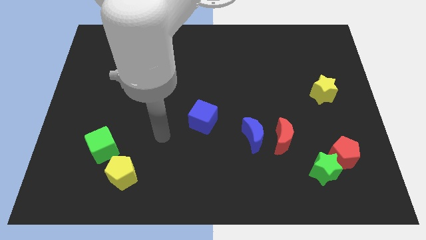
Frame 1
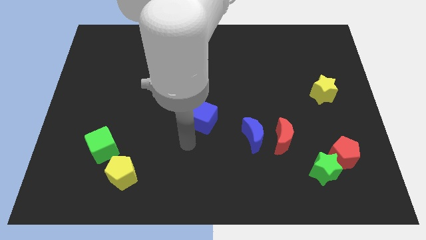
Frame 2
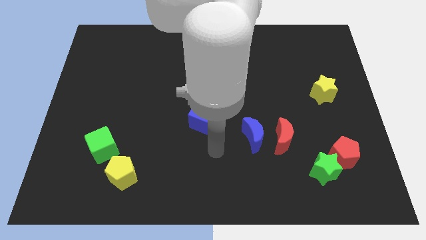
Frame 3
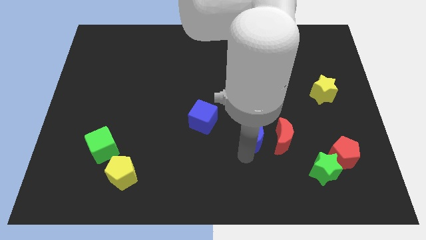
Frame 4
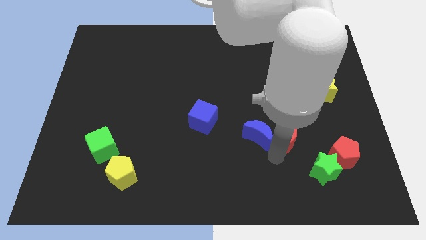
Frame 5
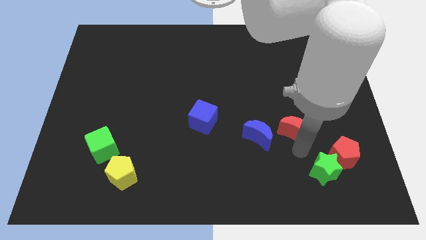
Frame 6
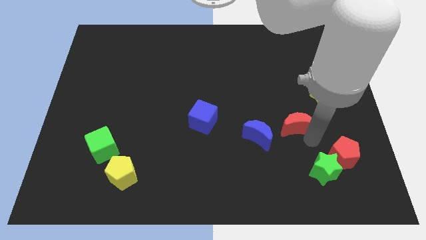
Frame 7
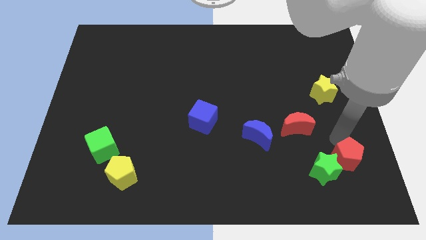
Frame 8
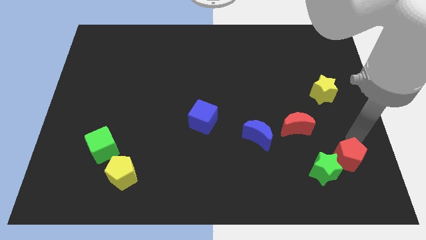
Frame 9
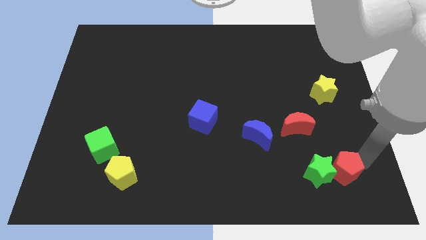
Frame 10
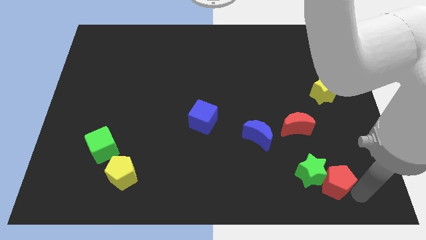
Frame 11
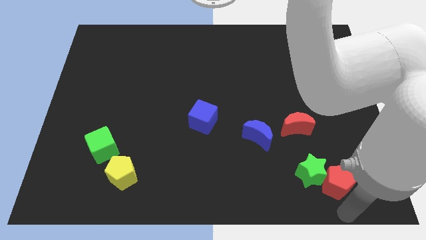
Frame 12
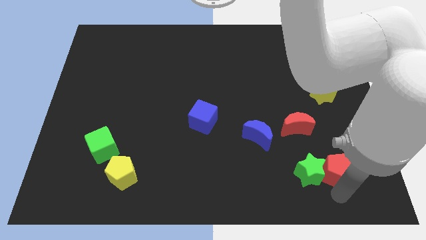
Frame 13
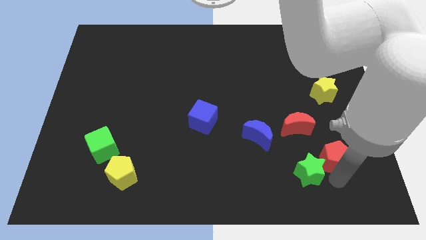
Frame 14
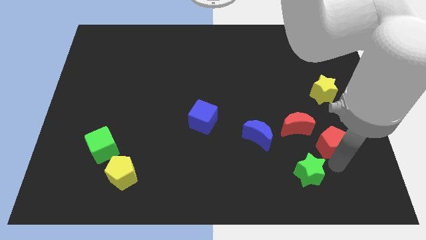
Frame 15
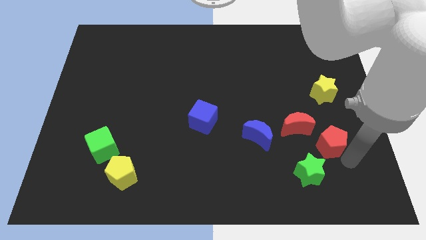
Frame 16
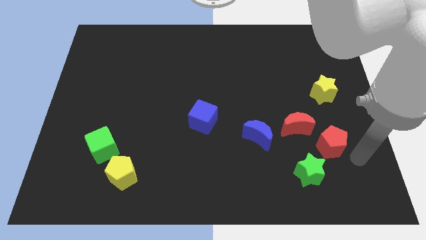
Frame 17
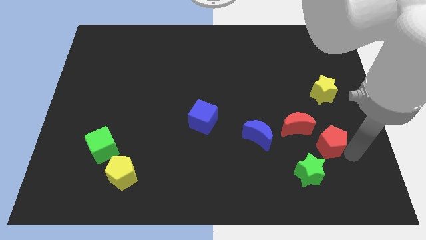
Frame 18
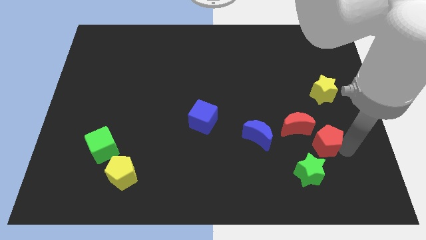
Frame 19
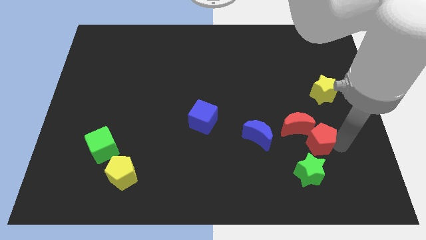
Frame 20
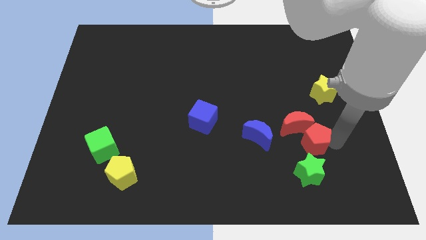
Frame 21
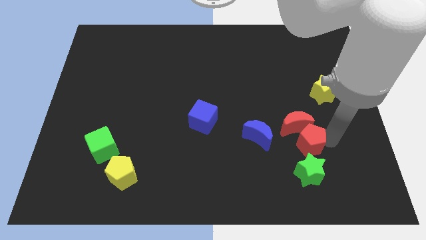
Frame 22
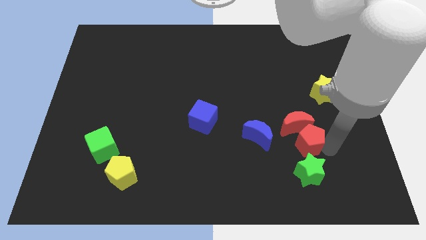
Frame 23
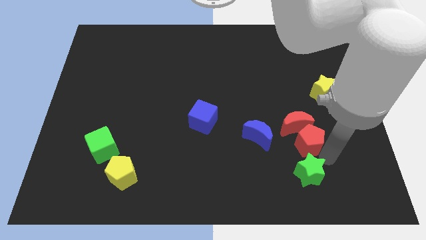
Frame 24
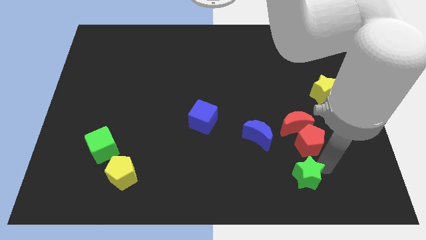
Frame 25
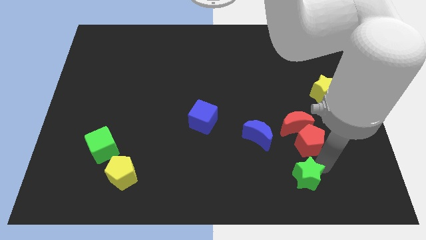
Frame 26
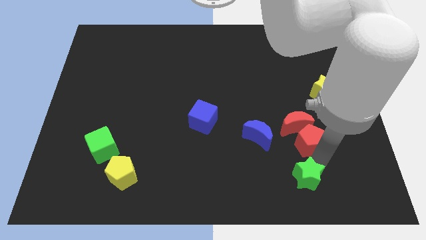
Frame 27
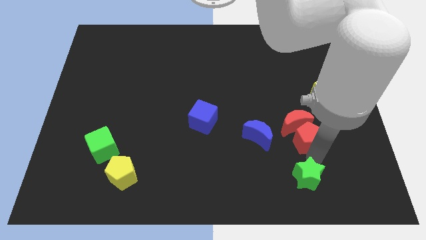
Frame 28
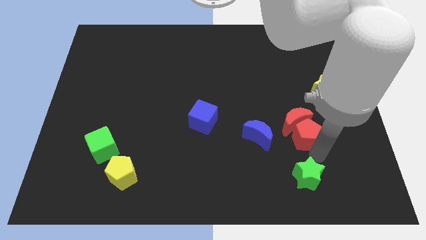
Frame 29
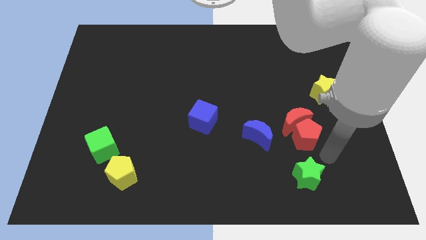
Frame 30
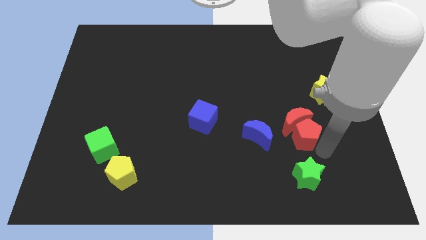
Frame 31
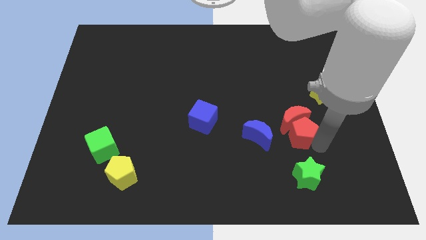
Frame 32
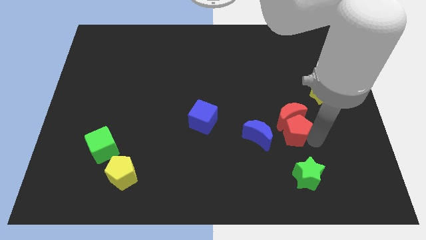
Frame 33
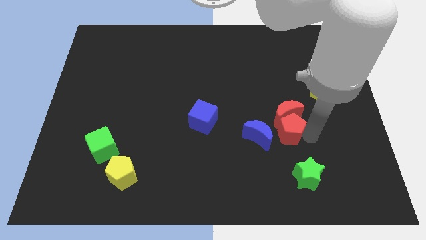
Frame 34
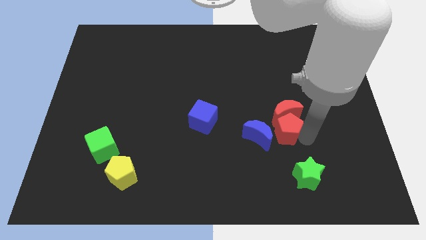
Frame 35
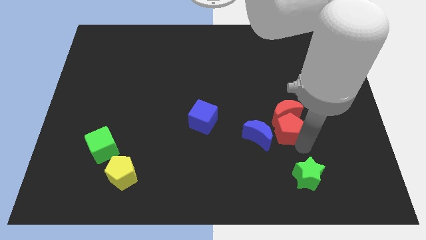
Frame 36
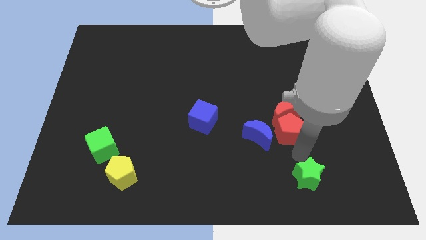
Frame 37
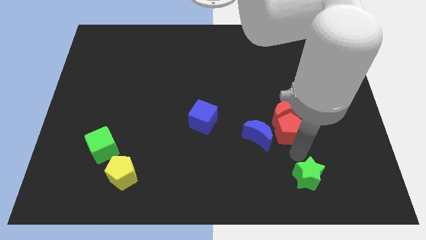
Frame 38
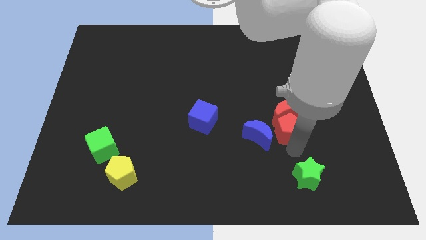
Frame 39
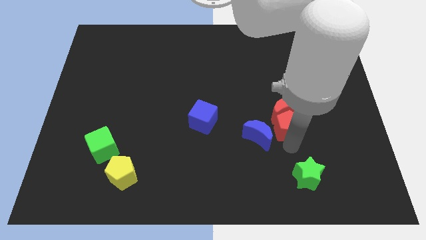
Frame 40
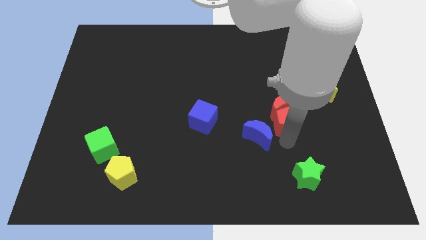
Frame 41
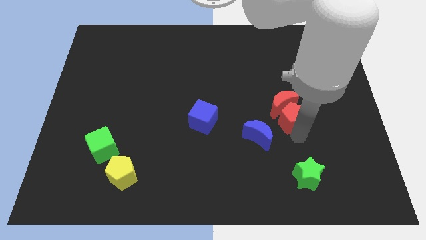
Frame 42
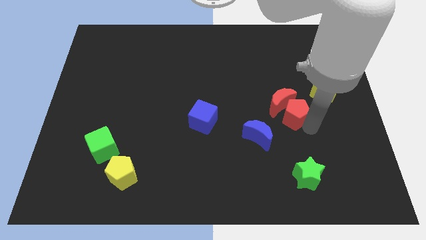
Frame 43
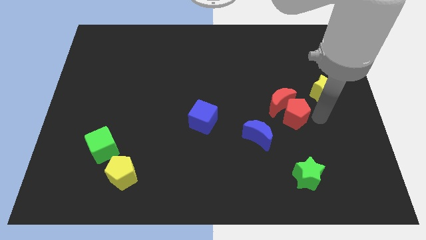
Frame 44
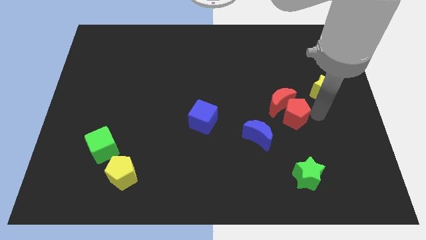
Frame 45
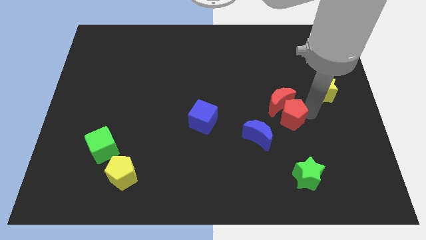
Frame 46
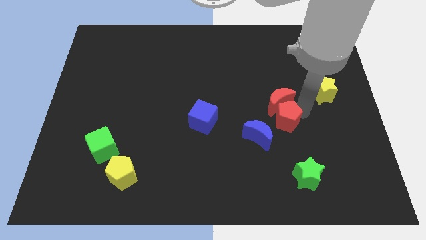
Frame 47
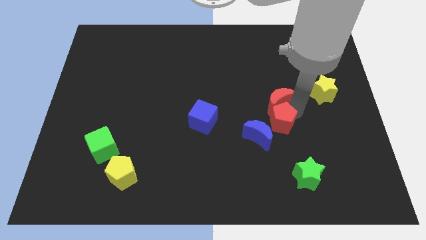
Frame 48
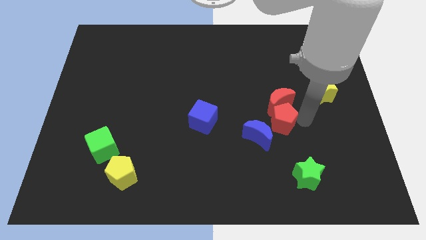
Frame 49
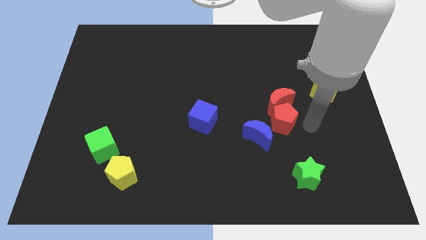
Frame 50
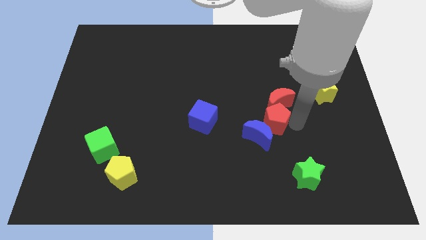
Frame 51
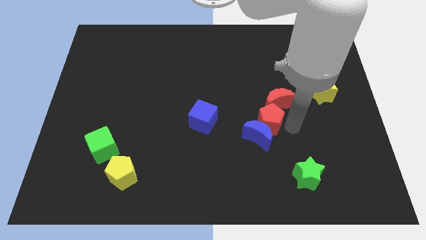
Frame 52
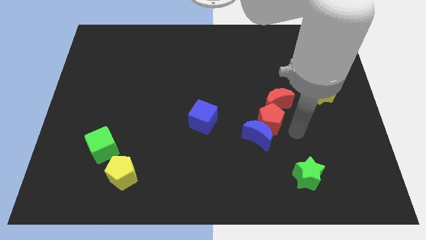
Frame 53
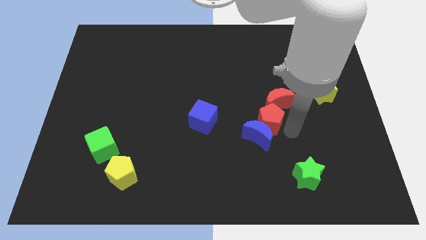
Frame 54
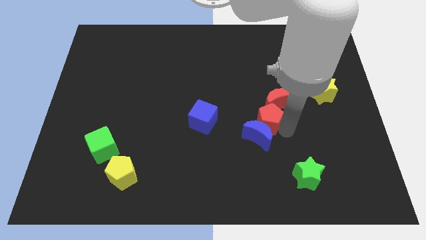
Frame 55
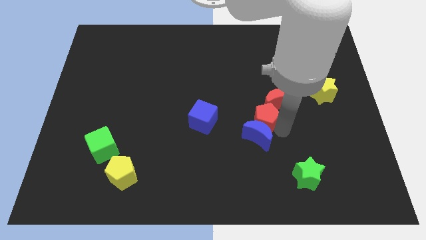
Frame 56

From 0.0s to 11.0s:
slide the red pentagon to the top left of the blue moon

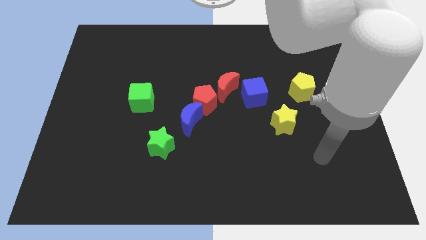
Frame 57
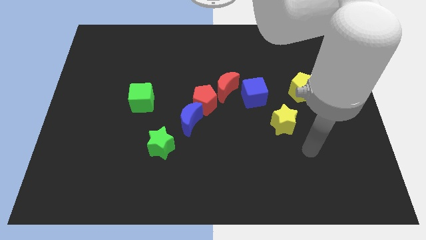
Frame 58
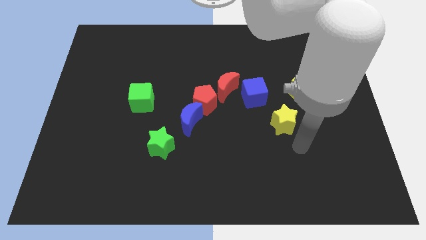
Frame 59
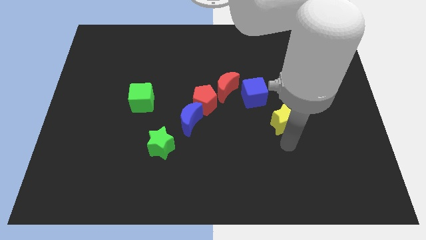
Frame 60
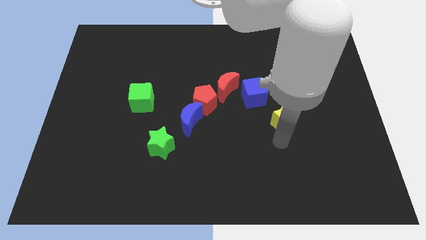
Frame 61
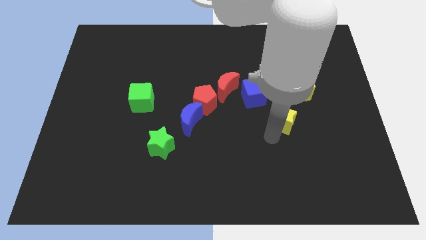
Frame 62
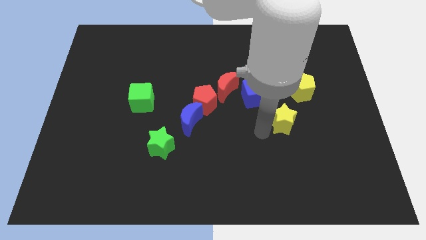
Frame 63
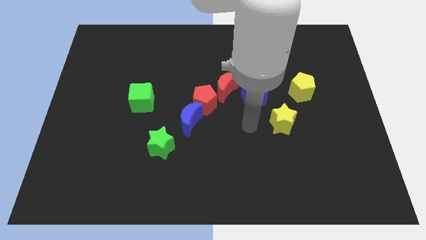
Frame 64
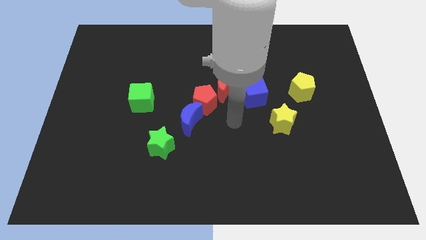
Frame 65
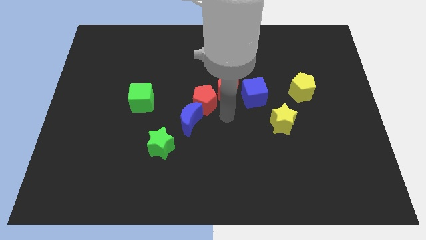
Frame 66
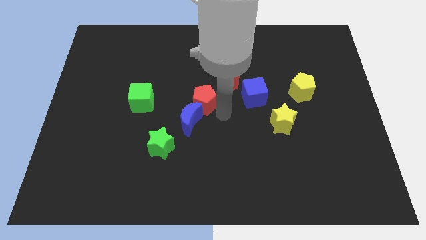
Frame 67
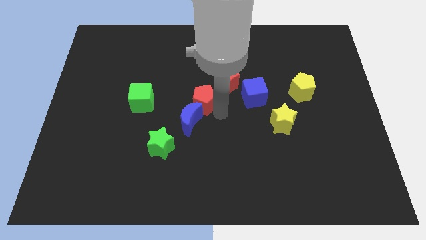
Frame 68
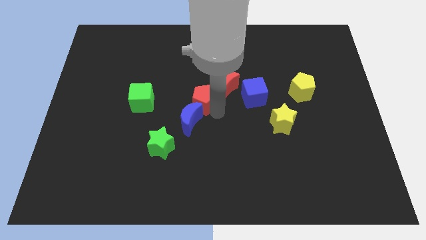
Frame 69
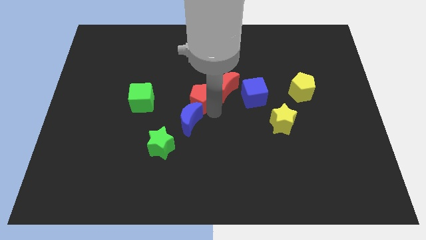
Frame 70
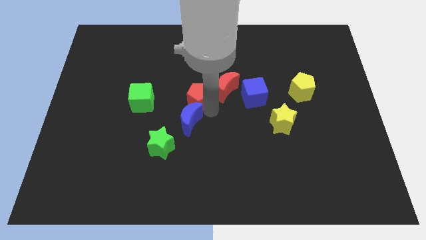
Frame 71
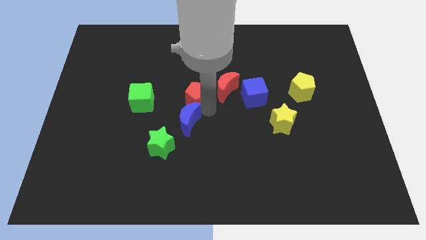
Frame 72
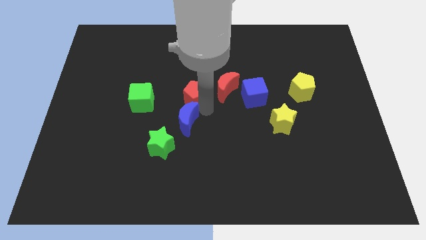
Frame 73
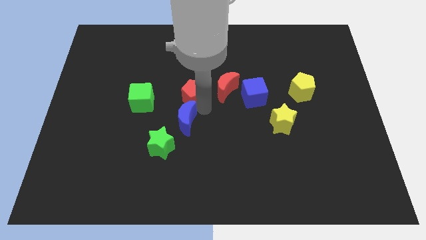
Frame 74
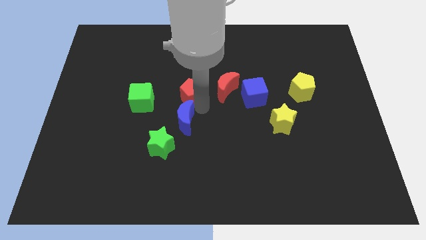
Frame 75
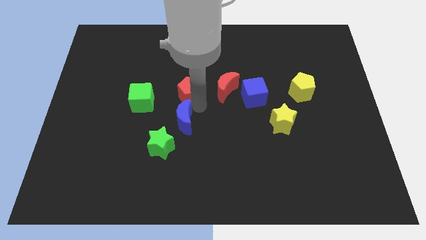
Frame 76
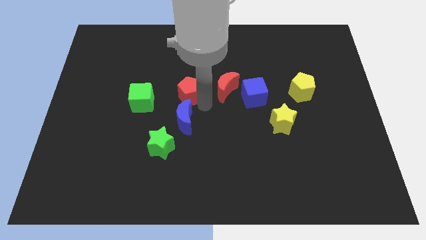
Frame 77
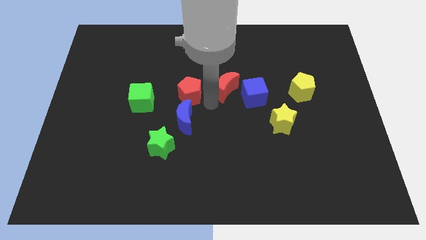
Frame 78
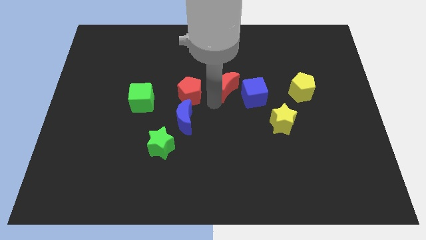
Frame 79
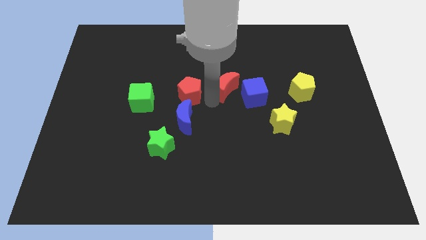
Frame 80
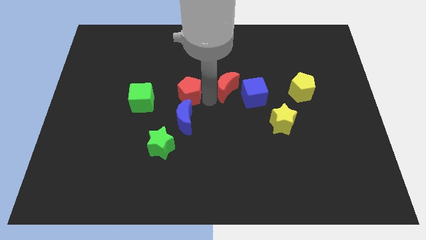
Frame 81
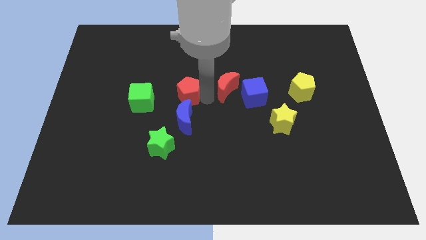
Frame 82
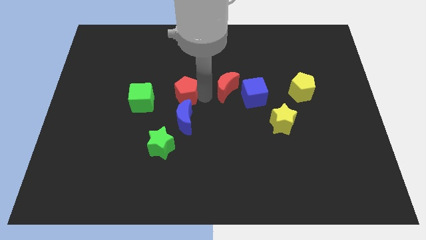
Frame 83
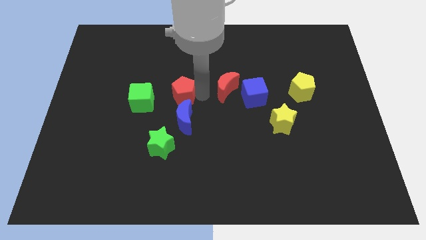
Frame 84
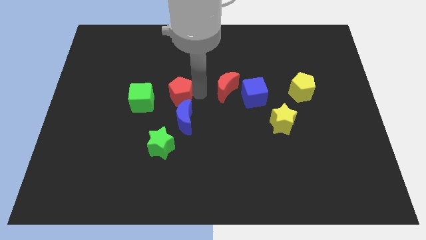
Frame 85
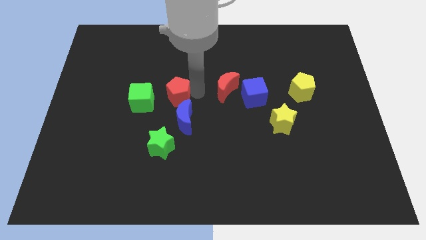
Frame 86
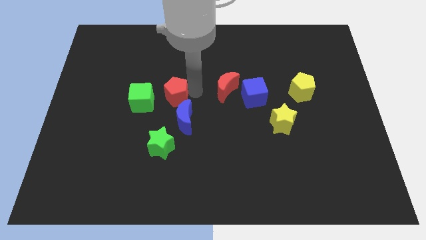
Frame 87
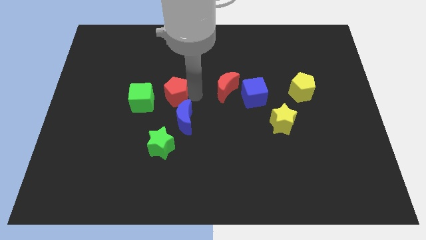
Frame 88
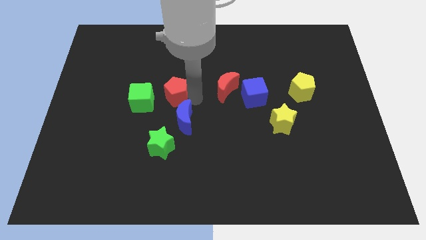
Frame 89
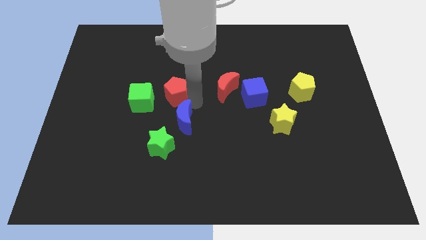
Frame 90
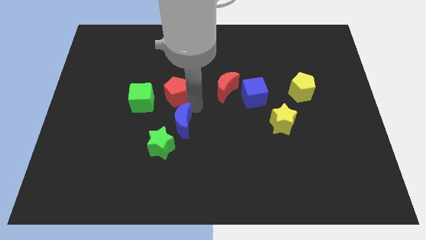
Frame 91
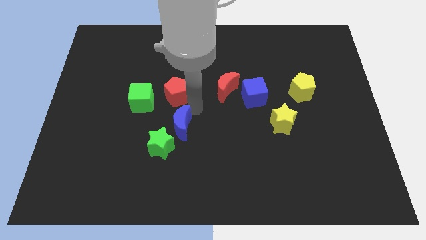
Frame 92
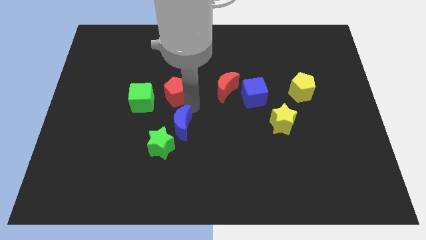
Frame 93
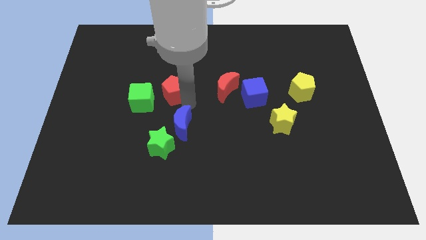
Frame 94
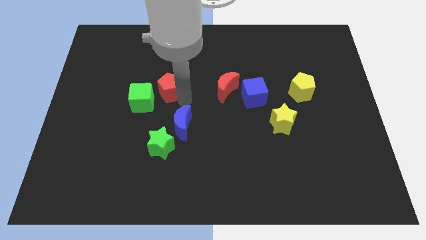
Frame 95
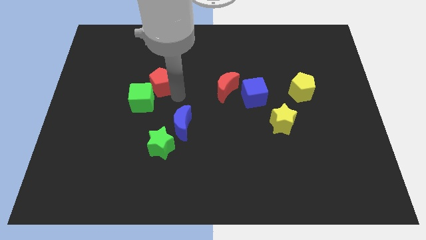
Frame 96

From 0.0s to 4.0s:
push the red pentagon to the top side of the green cube
